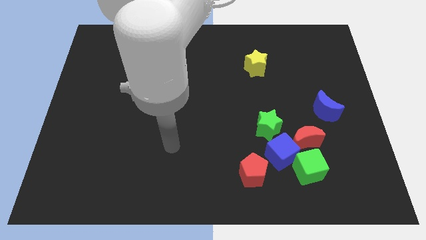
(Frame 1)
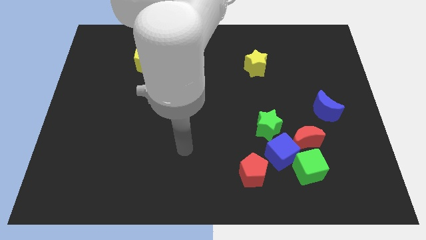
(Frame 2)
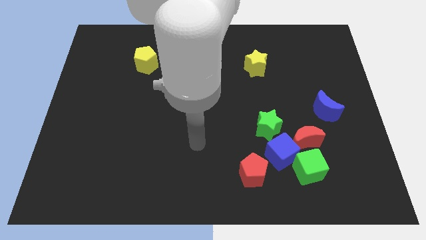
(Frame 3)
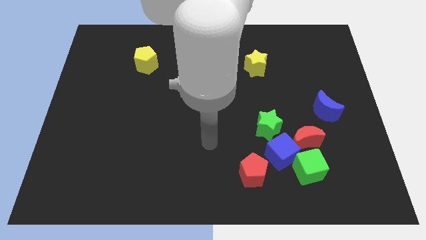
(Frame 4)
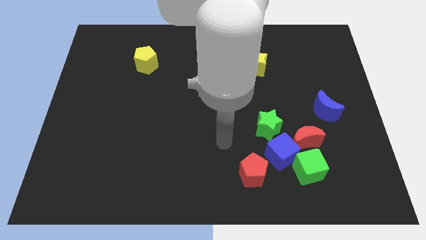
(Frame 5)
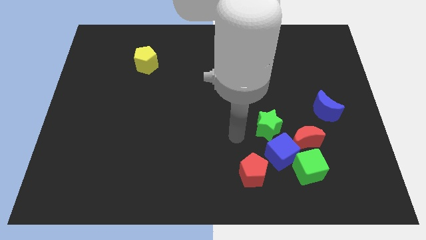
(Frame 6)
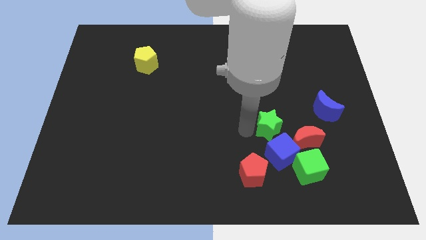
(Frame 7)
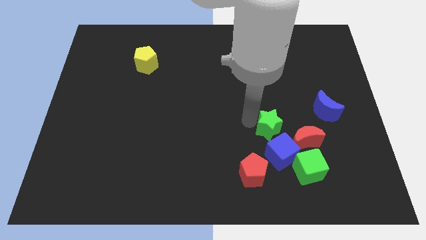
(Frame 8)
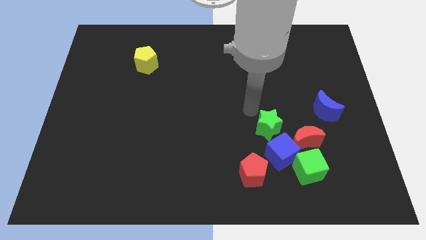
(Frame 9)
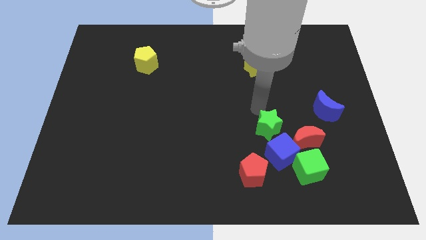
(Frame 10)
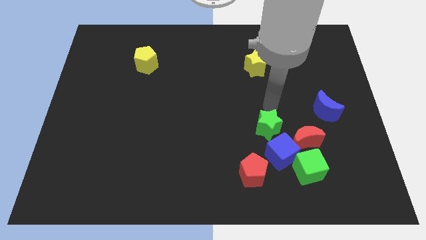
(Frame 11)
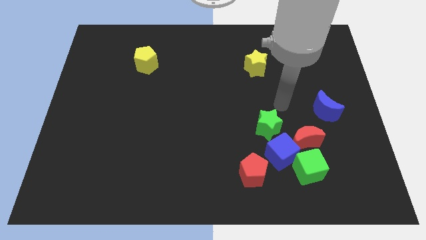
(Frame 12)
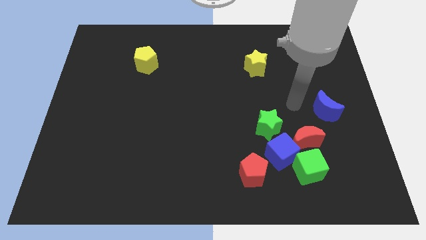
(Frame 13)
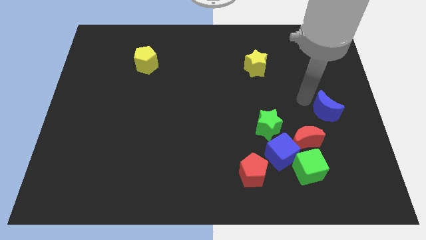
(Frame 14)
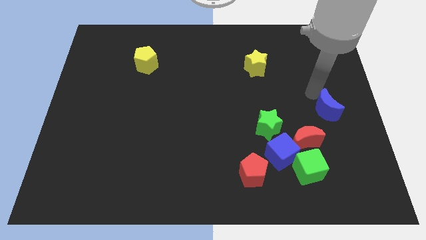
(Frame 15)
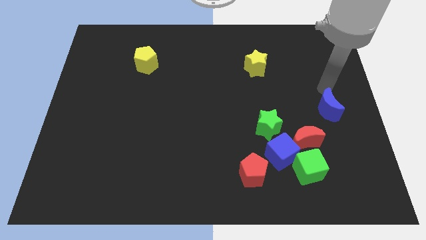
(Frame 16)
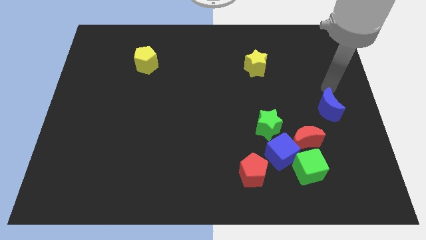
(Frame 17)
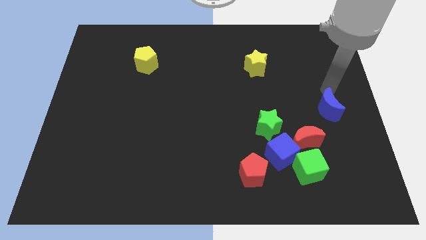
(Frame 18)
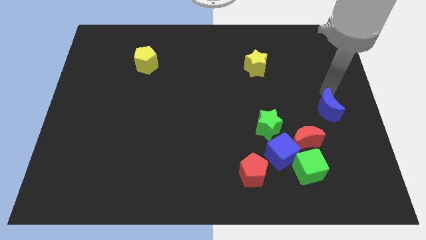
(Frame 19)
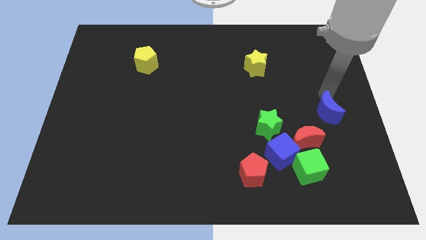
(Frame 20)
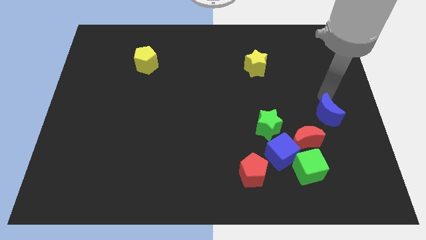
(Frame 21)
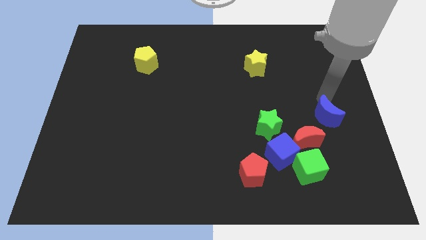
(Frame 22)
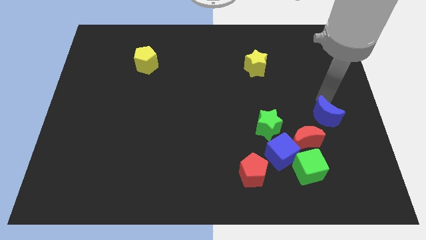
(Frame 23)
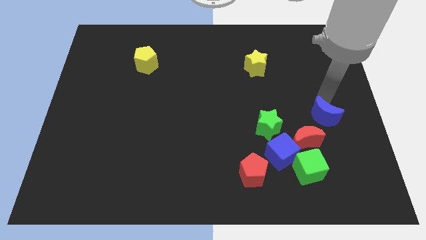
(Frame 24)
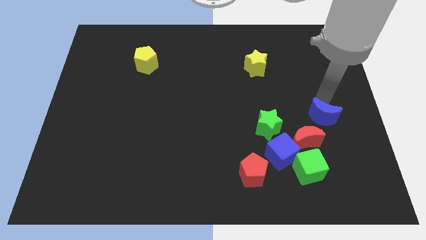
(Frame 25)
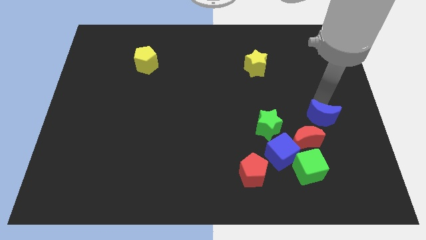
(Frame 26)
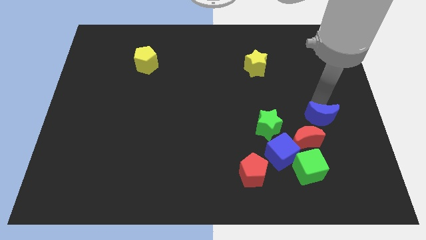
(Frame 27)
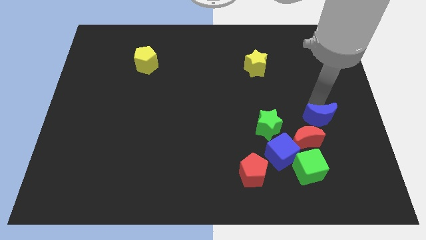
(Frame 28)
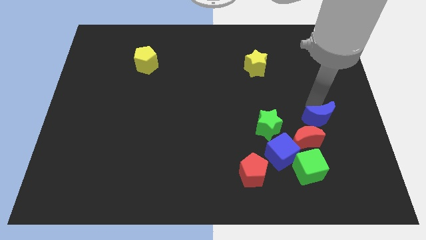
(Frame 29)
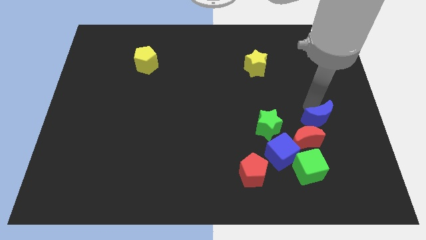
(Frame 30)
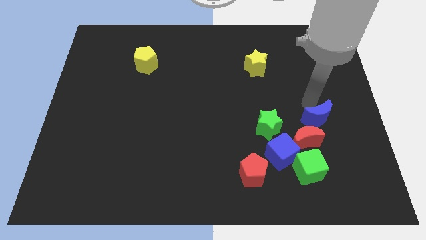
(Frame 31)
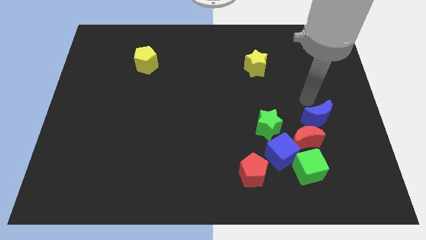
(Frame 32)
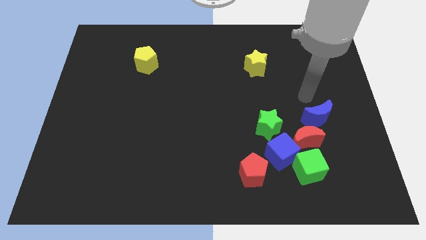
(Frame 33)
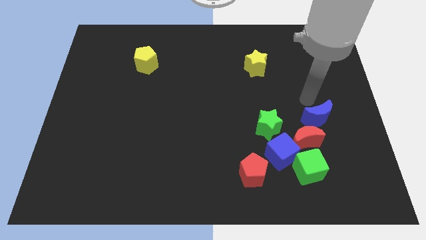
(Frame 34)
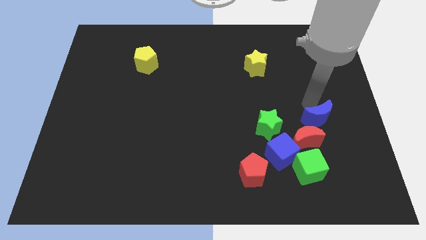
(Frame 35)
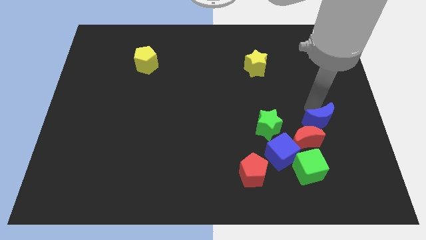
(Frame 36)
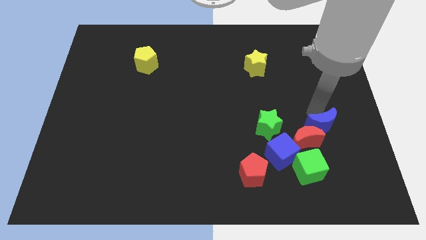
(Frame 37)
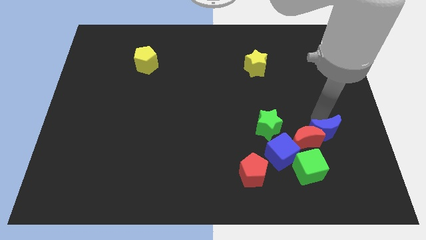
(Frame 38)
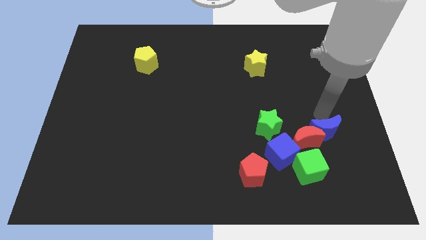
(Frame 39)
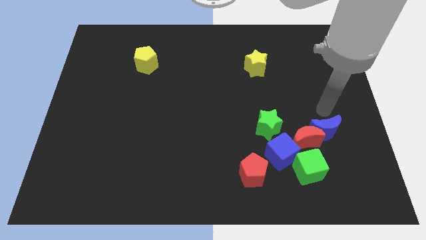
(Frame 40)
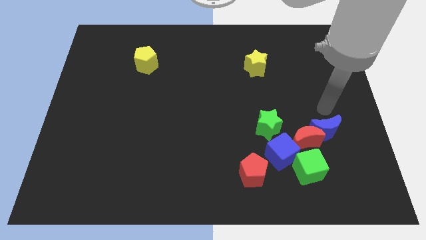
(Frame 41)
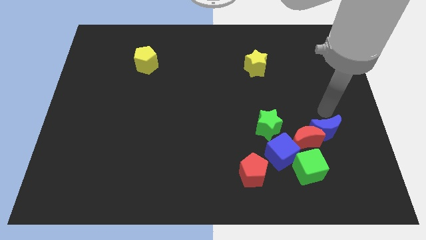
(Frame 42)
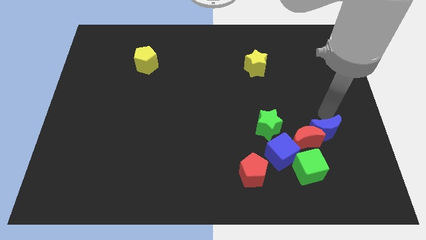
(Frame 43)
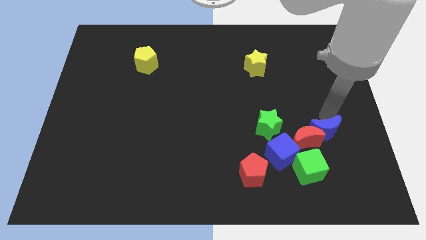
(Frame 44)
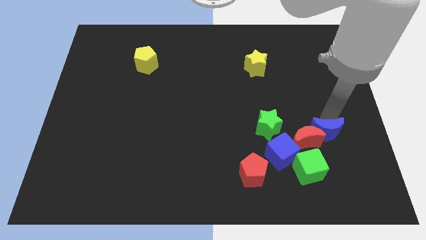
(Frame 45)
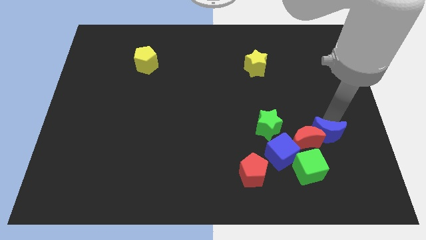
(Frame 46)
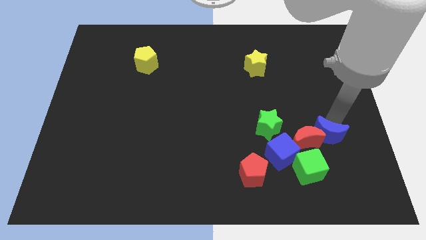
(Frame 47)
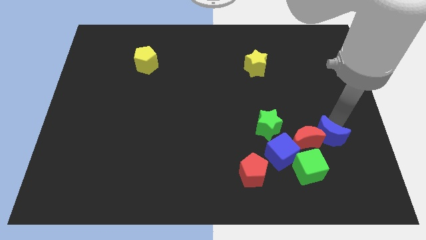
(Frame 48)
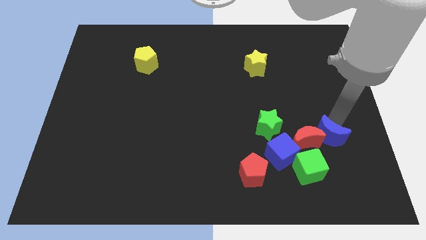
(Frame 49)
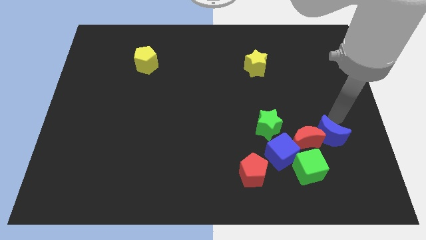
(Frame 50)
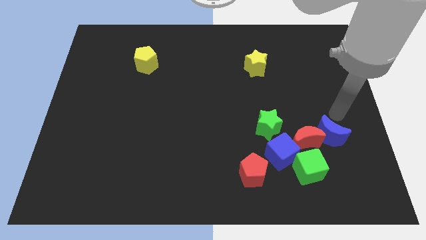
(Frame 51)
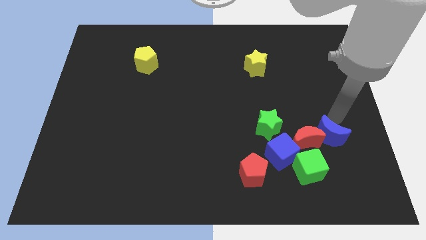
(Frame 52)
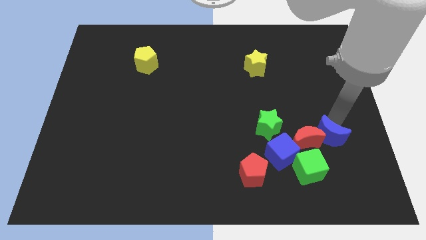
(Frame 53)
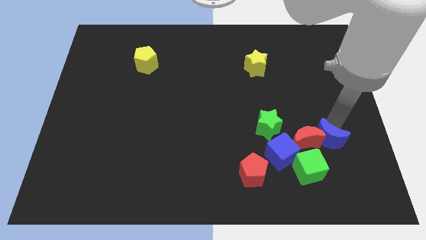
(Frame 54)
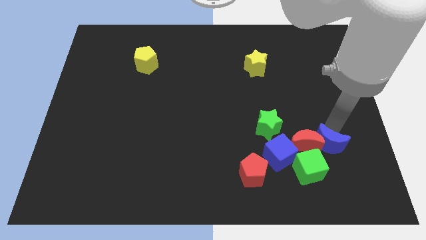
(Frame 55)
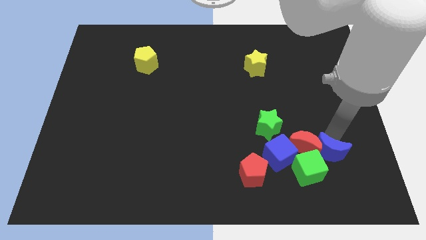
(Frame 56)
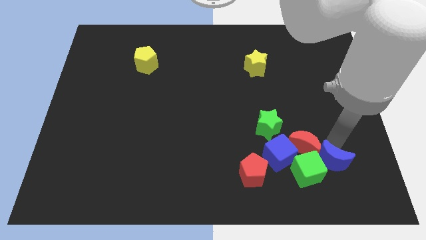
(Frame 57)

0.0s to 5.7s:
move the blue moon towards the green cube

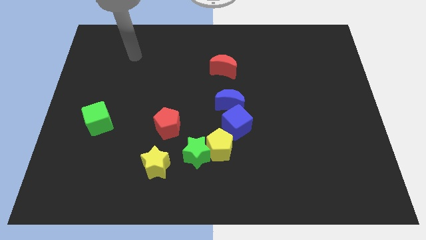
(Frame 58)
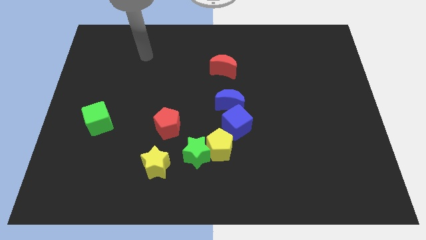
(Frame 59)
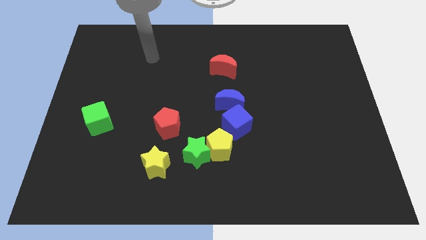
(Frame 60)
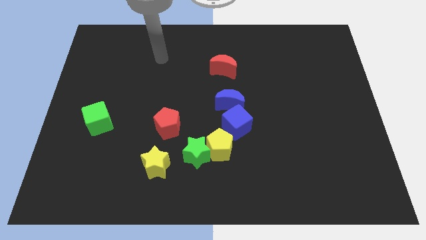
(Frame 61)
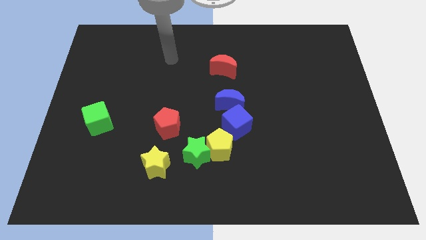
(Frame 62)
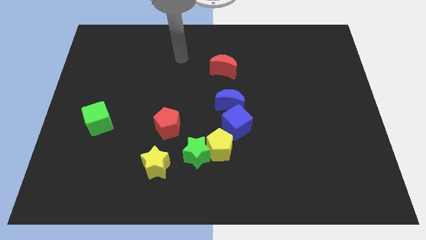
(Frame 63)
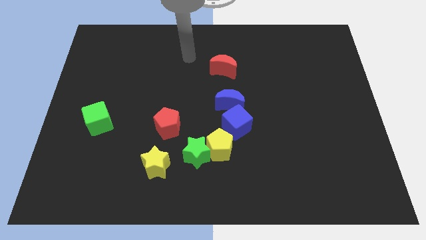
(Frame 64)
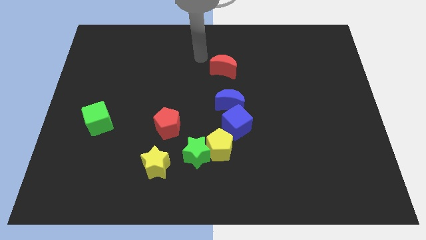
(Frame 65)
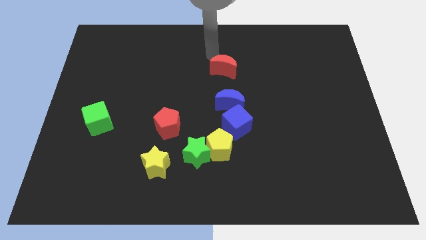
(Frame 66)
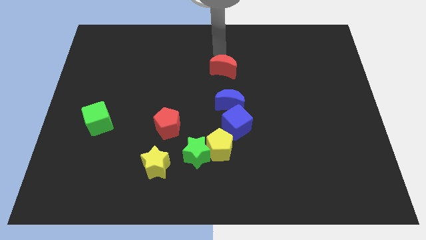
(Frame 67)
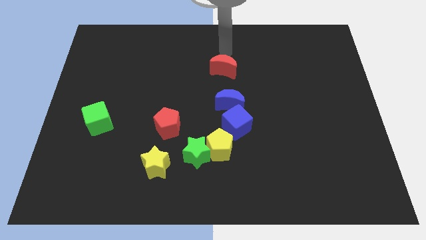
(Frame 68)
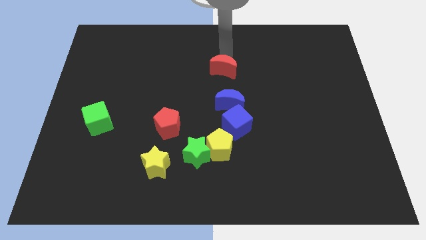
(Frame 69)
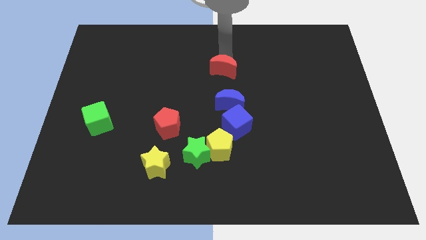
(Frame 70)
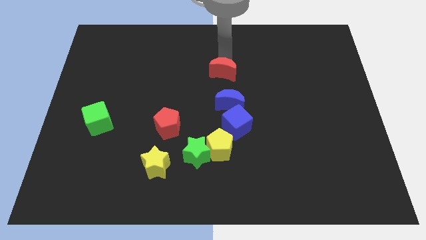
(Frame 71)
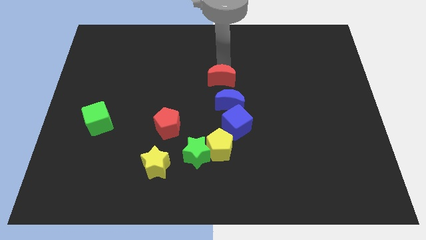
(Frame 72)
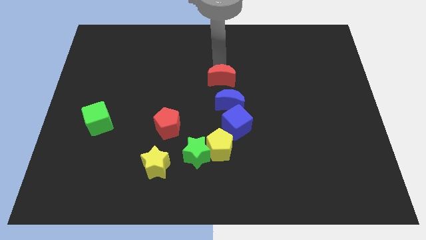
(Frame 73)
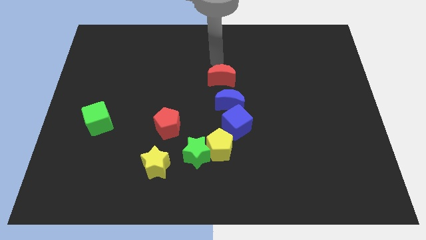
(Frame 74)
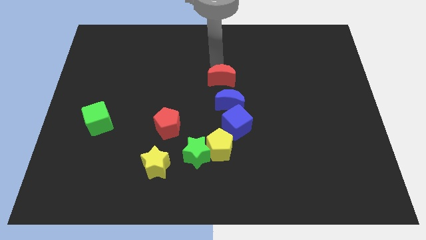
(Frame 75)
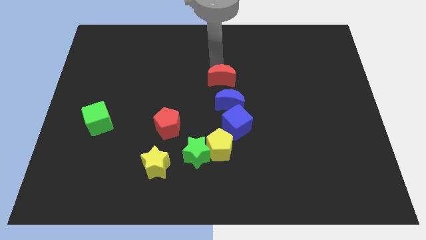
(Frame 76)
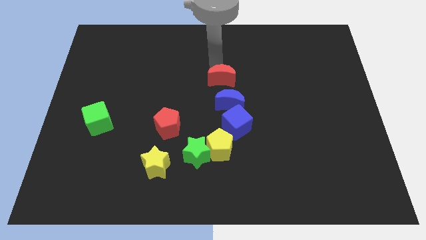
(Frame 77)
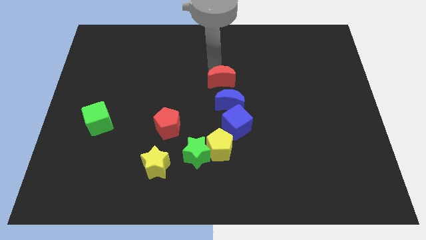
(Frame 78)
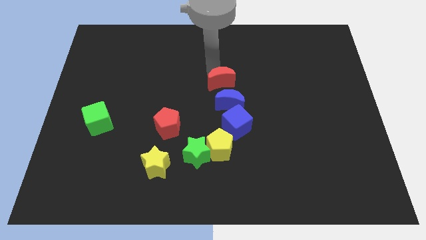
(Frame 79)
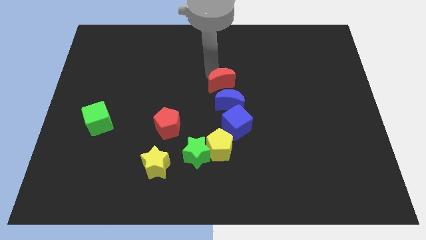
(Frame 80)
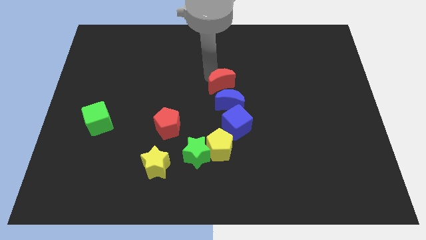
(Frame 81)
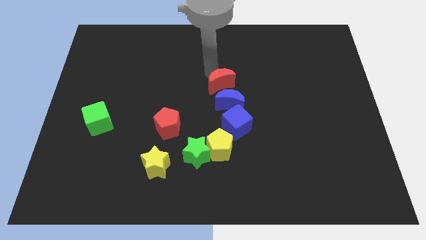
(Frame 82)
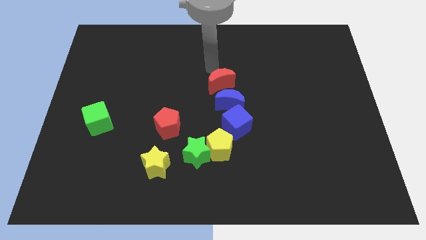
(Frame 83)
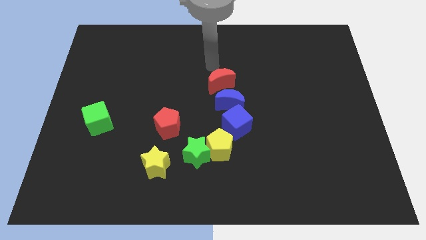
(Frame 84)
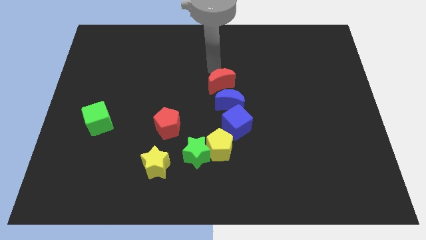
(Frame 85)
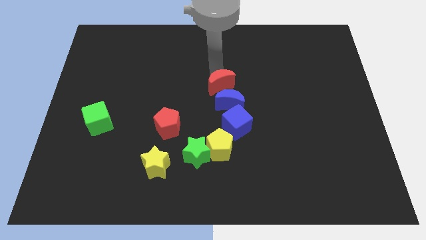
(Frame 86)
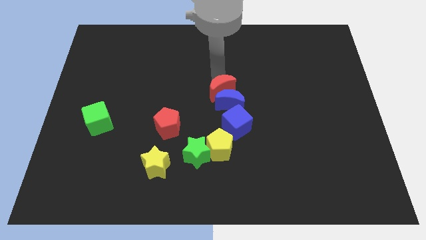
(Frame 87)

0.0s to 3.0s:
put the red moon next to the blue moon
